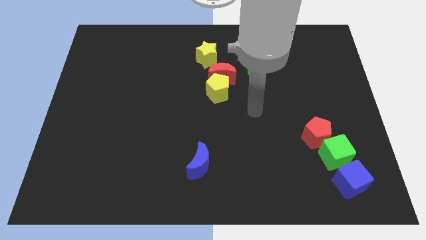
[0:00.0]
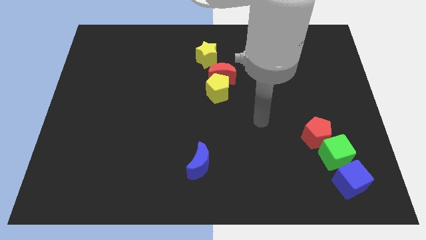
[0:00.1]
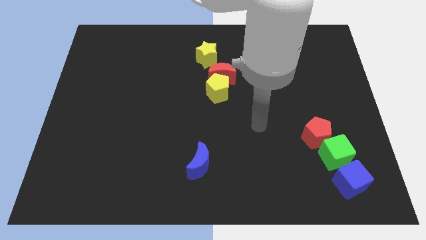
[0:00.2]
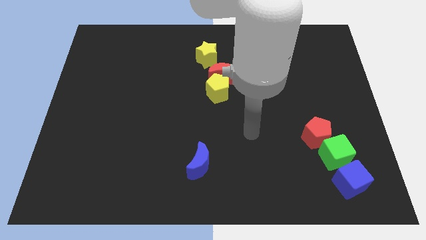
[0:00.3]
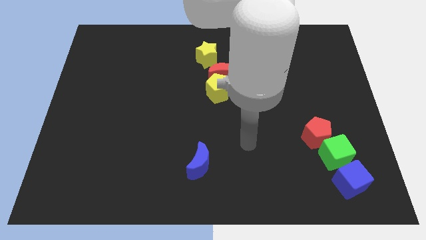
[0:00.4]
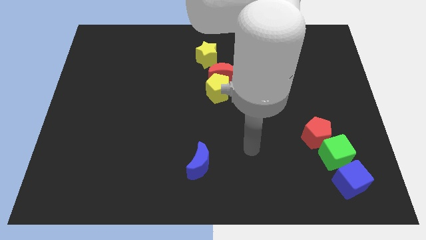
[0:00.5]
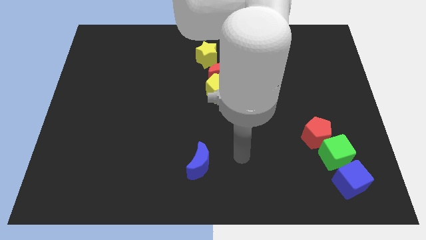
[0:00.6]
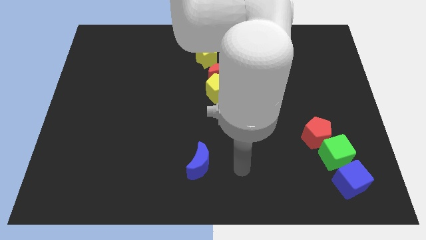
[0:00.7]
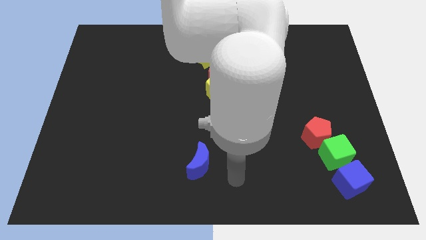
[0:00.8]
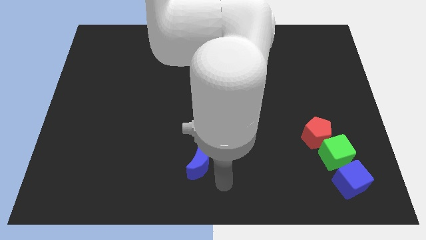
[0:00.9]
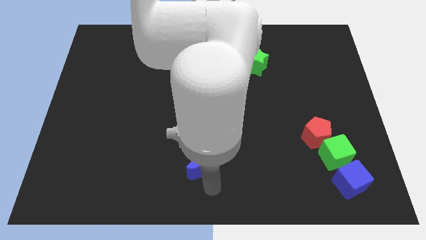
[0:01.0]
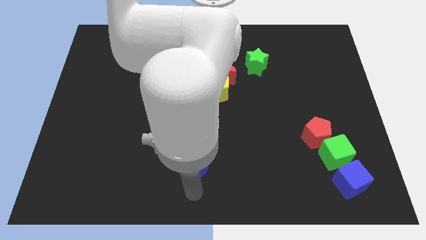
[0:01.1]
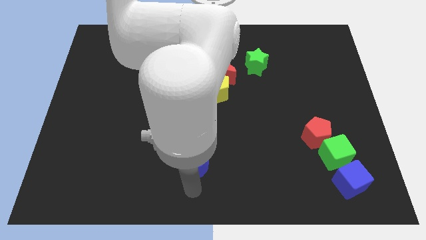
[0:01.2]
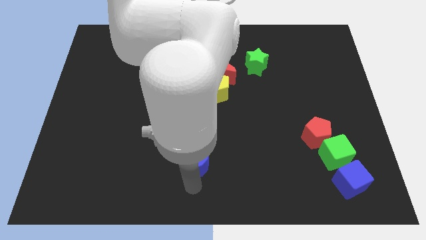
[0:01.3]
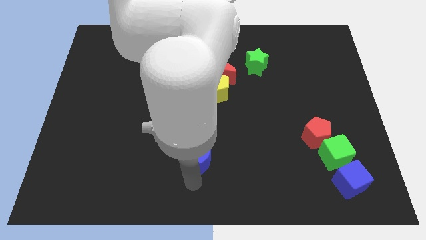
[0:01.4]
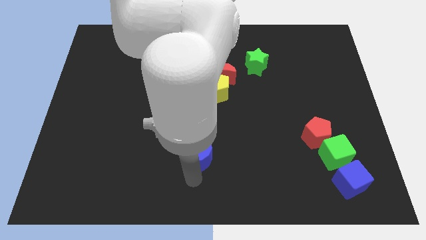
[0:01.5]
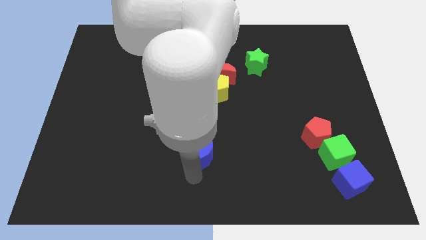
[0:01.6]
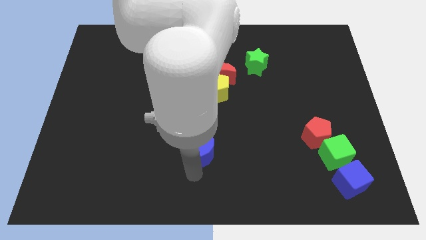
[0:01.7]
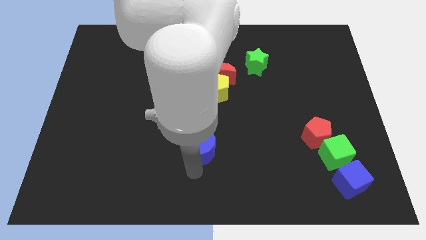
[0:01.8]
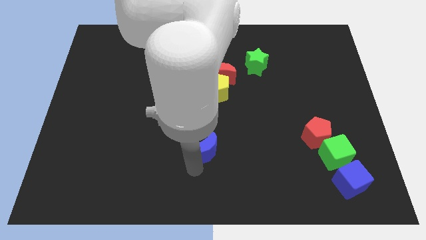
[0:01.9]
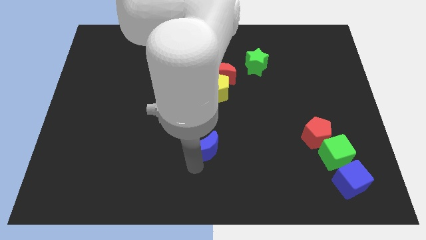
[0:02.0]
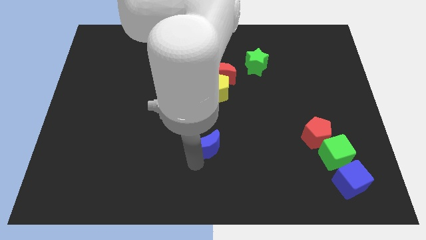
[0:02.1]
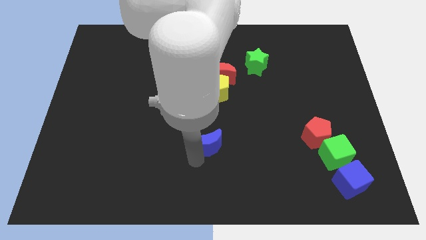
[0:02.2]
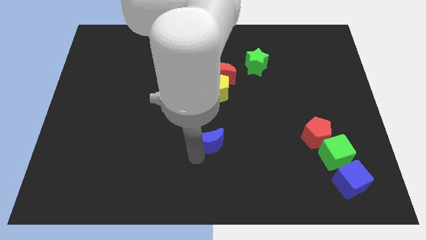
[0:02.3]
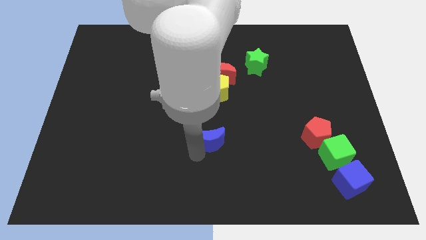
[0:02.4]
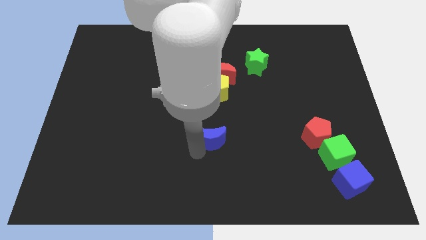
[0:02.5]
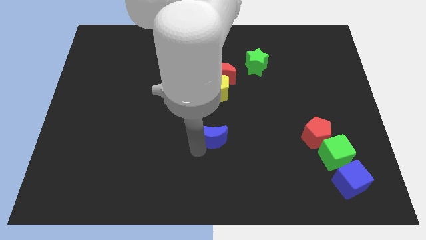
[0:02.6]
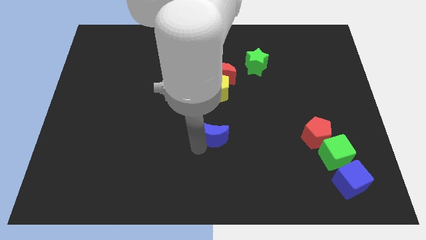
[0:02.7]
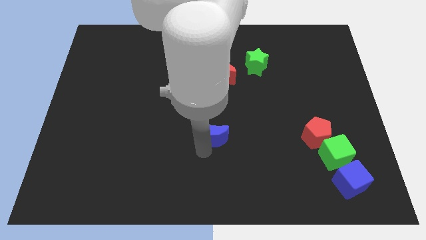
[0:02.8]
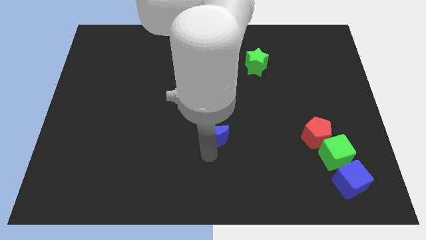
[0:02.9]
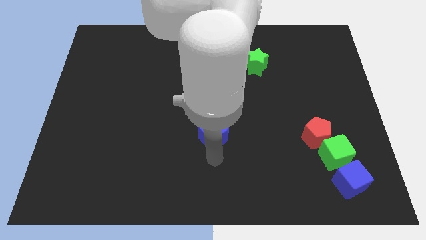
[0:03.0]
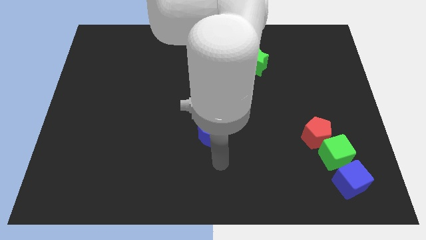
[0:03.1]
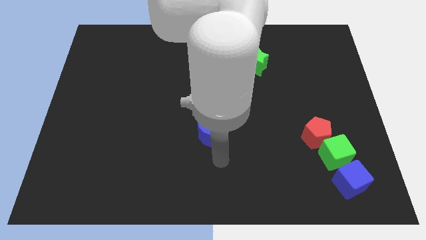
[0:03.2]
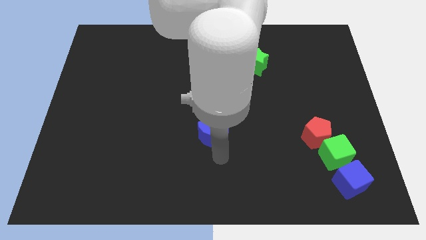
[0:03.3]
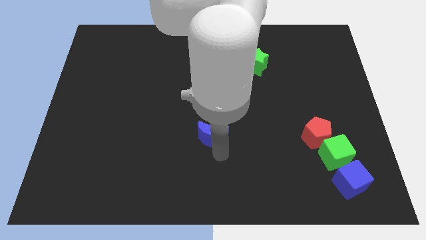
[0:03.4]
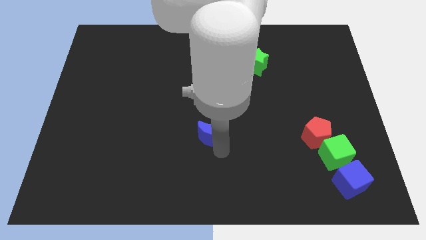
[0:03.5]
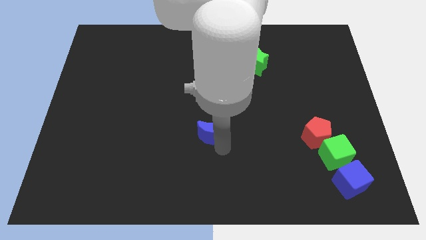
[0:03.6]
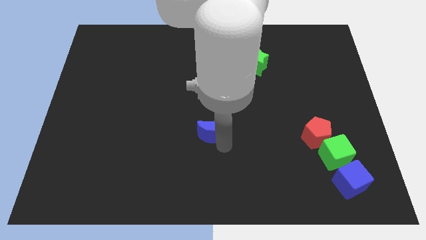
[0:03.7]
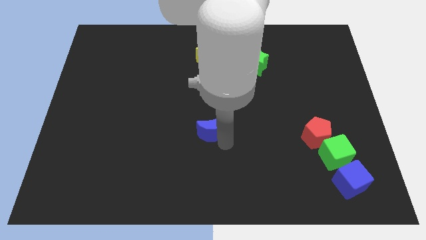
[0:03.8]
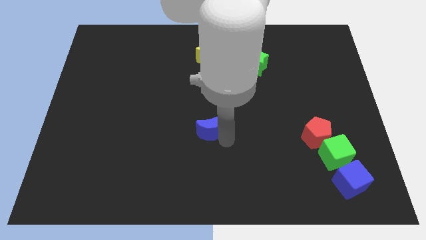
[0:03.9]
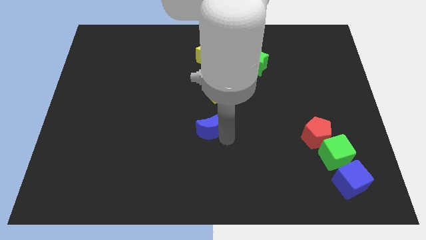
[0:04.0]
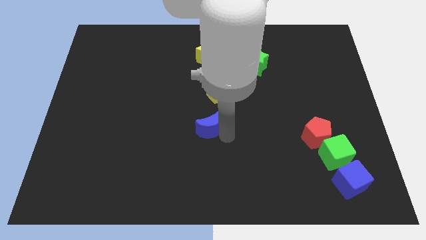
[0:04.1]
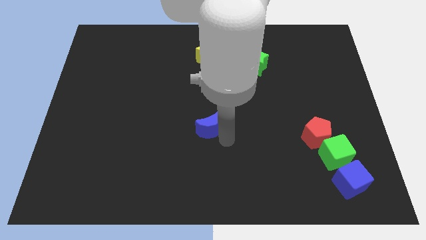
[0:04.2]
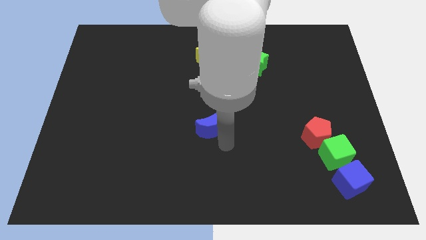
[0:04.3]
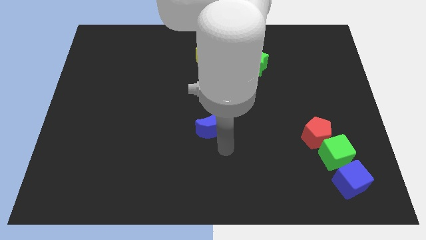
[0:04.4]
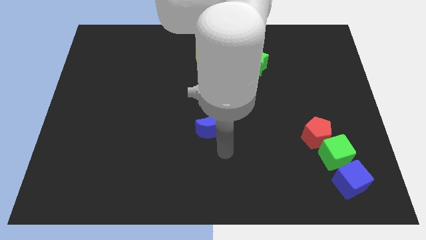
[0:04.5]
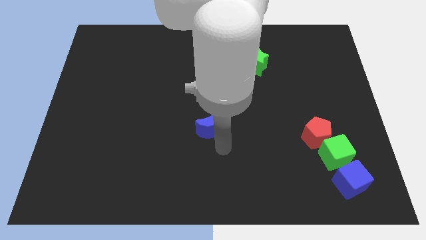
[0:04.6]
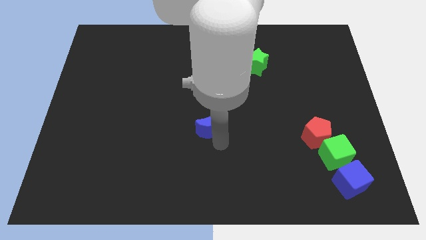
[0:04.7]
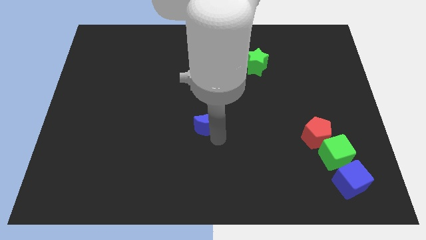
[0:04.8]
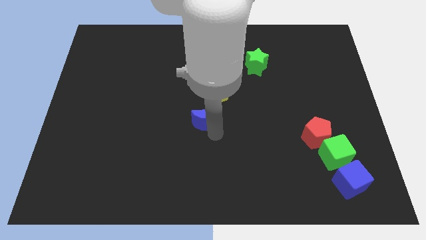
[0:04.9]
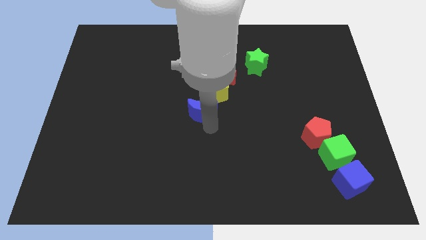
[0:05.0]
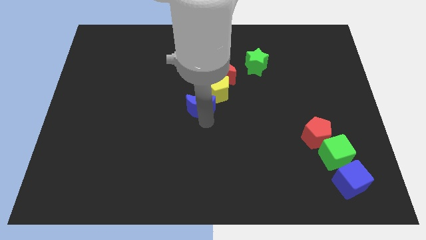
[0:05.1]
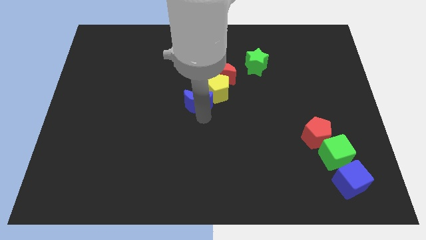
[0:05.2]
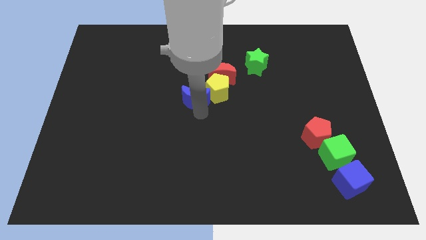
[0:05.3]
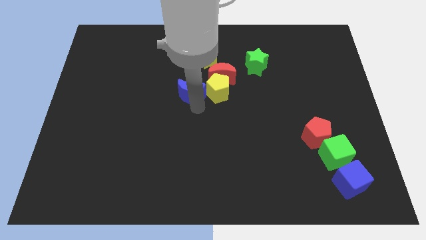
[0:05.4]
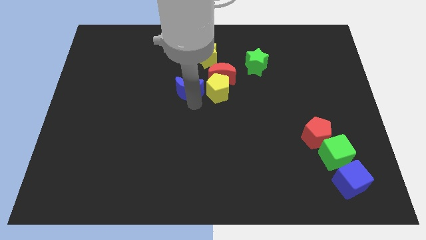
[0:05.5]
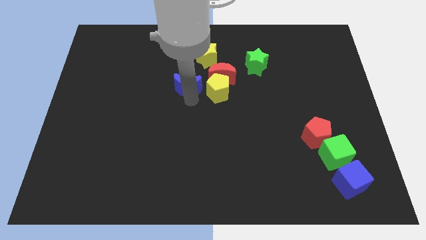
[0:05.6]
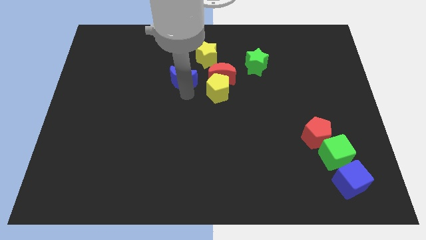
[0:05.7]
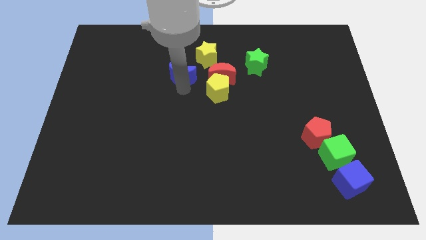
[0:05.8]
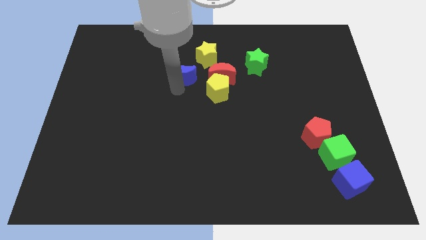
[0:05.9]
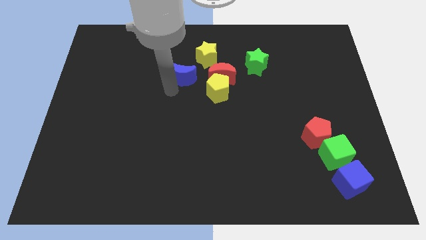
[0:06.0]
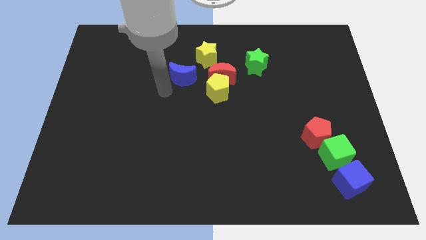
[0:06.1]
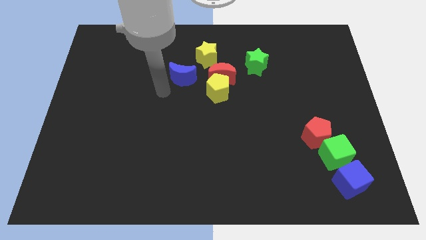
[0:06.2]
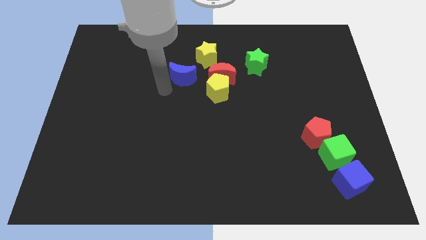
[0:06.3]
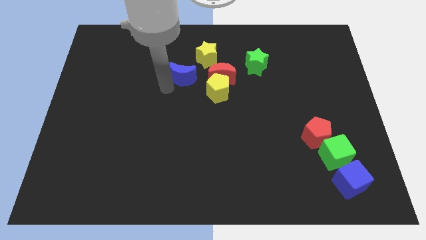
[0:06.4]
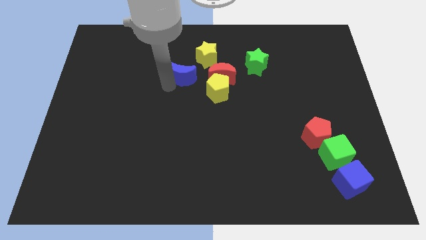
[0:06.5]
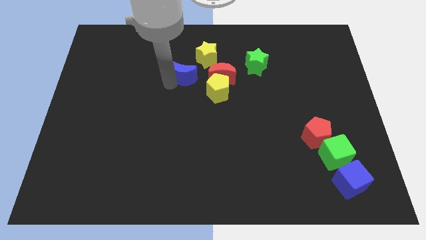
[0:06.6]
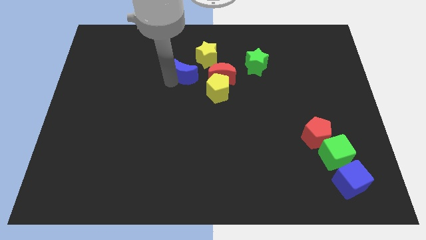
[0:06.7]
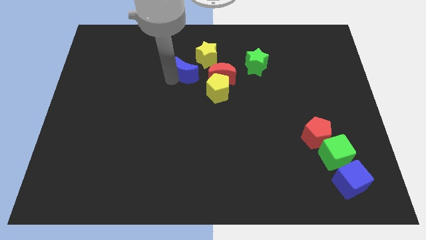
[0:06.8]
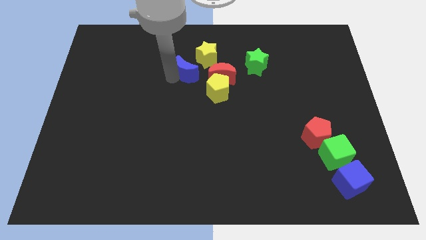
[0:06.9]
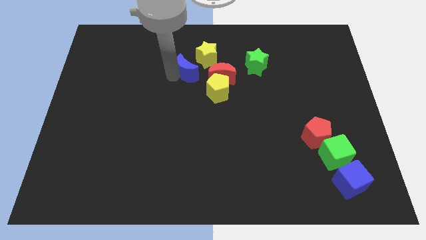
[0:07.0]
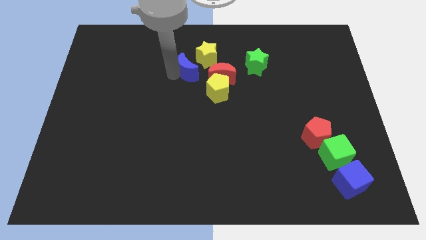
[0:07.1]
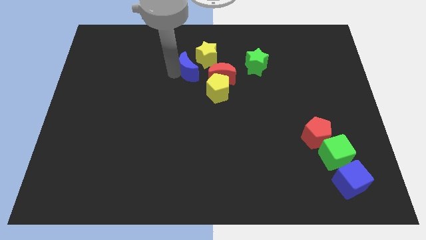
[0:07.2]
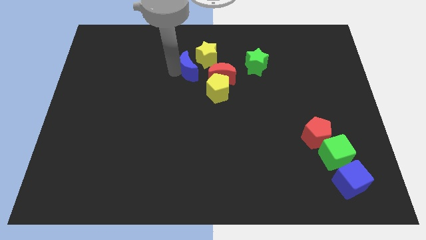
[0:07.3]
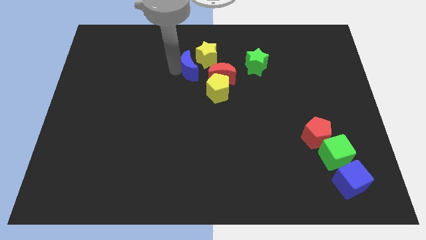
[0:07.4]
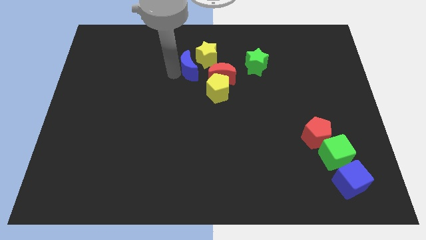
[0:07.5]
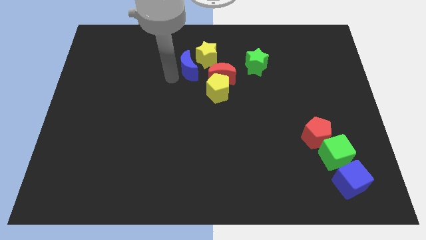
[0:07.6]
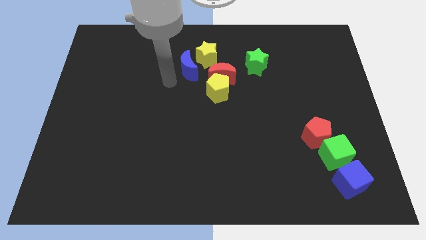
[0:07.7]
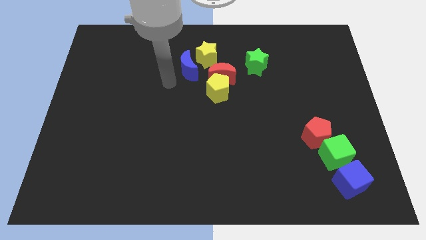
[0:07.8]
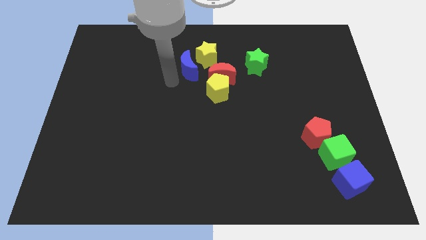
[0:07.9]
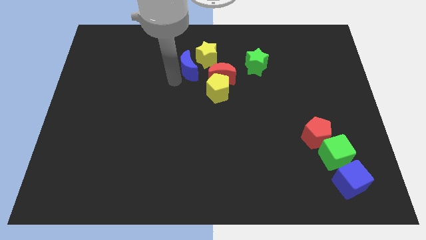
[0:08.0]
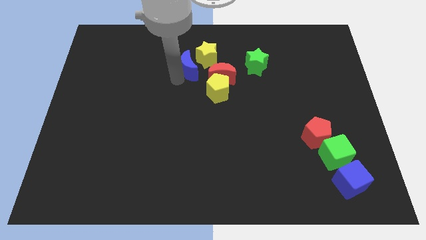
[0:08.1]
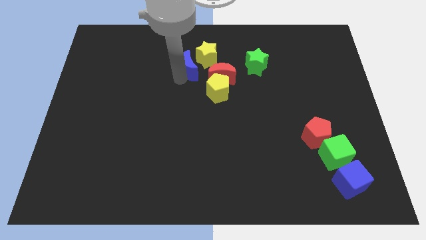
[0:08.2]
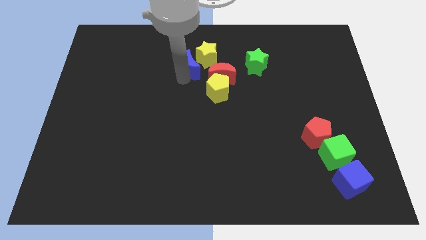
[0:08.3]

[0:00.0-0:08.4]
slide the blue moon close to the yellow star
